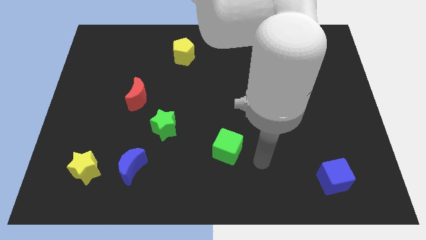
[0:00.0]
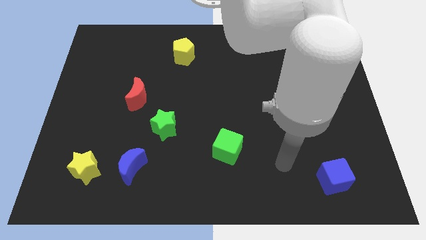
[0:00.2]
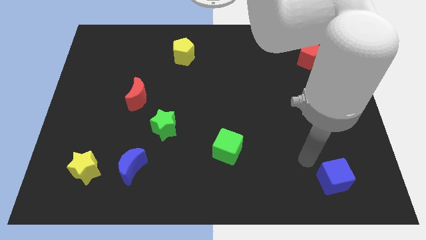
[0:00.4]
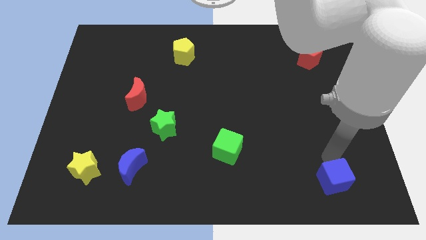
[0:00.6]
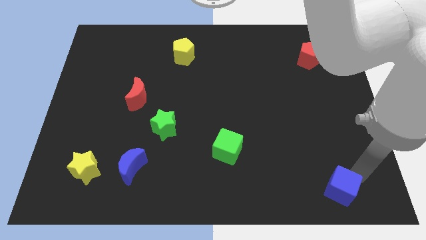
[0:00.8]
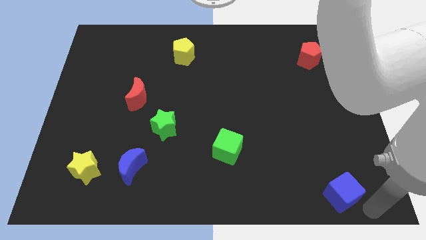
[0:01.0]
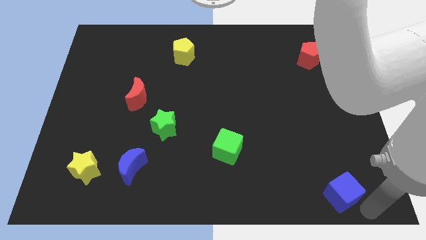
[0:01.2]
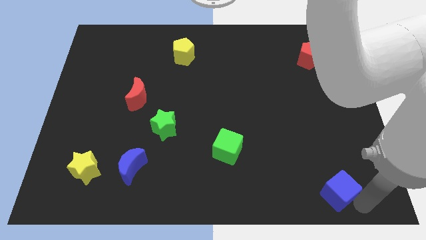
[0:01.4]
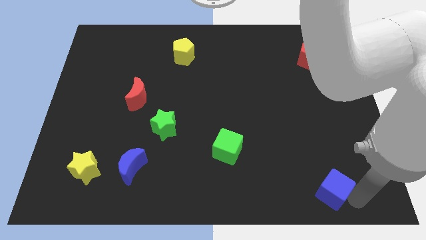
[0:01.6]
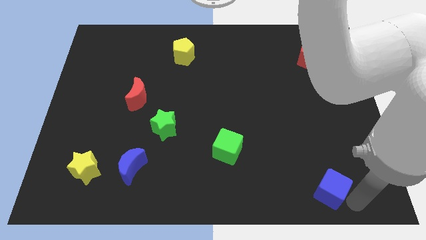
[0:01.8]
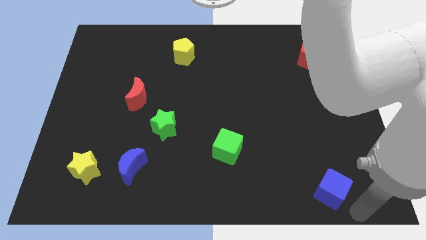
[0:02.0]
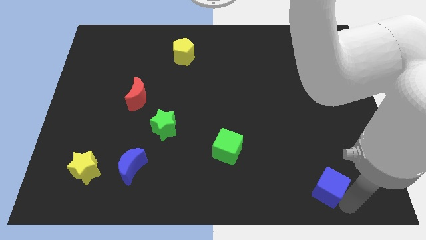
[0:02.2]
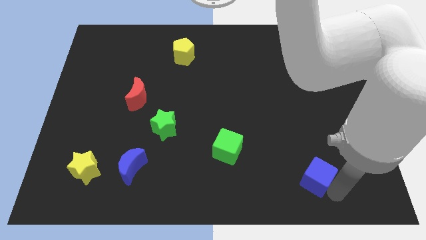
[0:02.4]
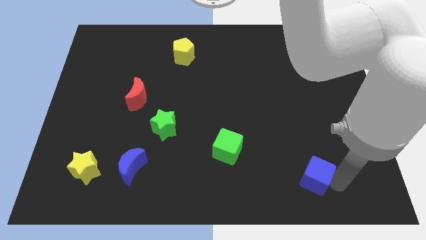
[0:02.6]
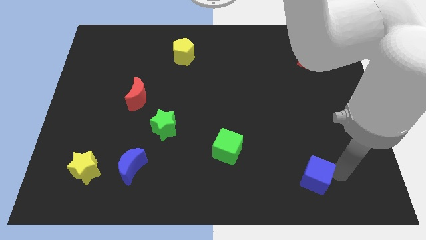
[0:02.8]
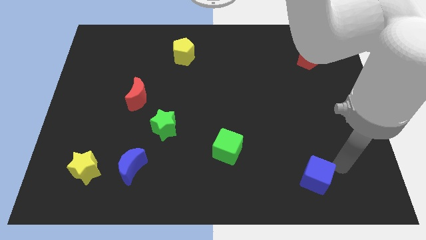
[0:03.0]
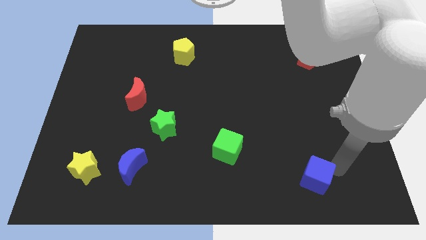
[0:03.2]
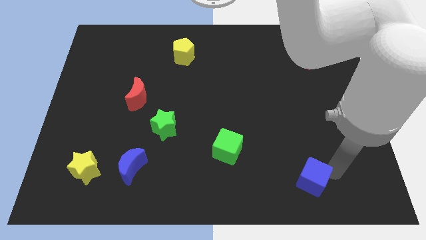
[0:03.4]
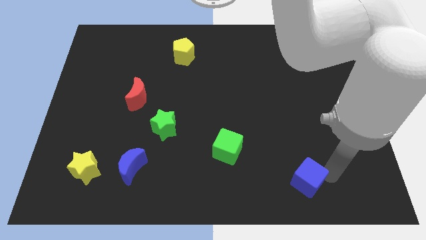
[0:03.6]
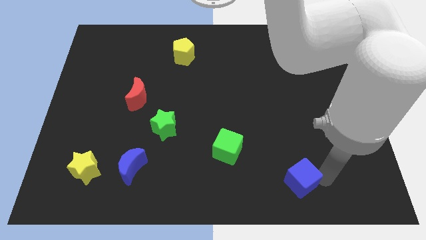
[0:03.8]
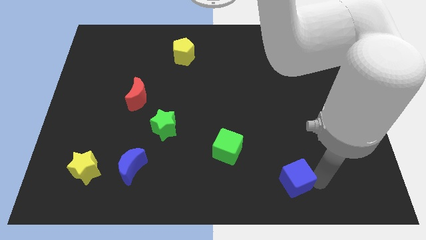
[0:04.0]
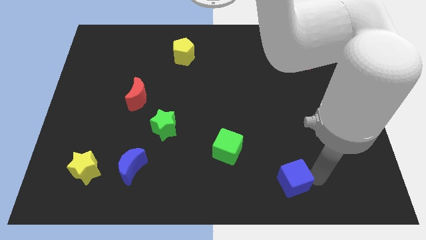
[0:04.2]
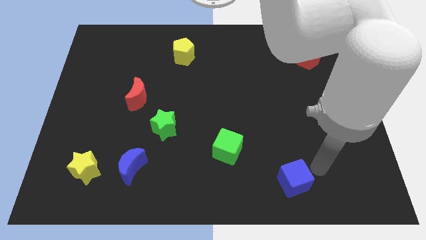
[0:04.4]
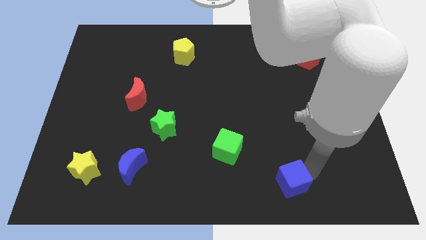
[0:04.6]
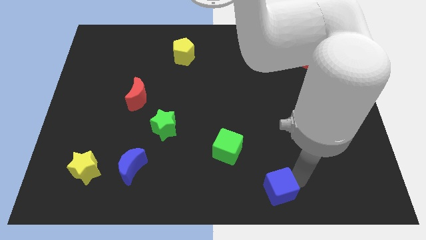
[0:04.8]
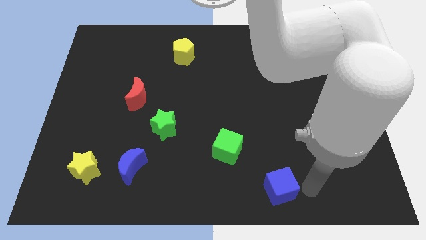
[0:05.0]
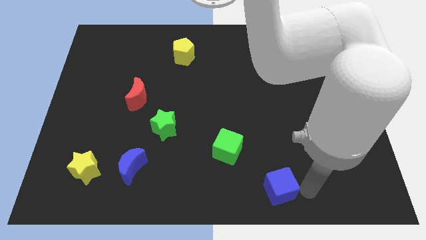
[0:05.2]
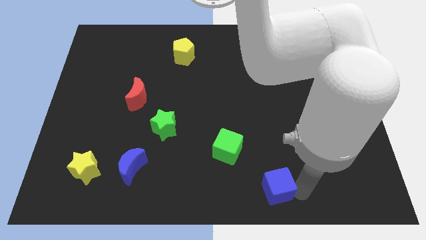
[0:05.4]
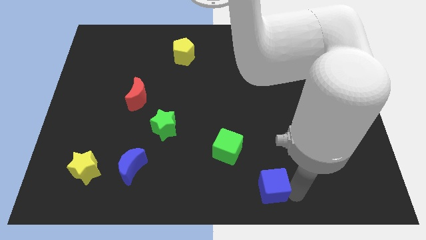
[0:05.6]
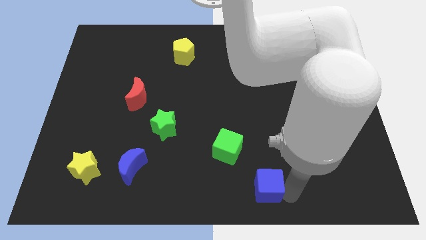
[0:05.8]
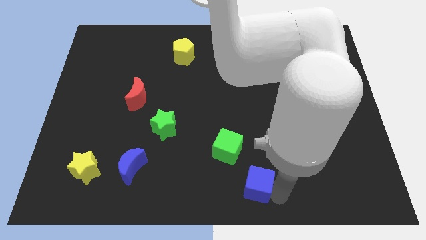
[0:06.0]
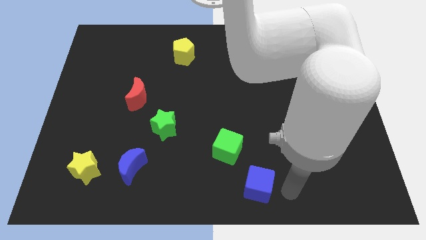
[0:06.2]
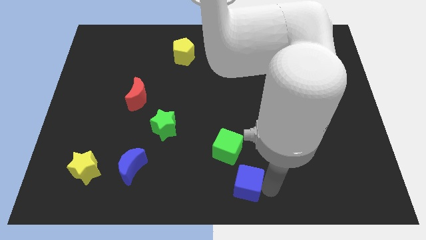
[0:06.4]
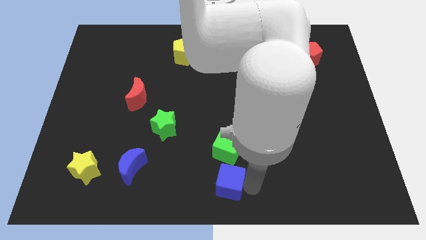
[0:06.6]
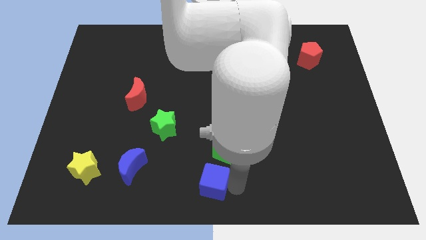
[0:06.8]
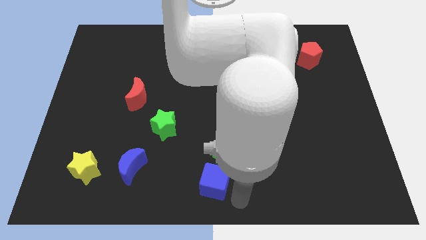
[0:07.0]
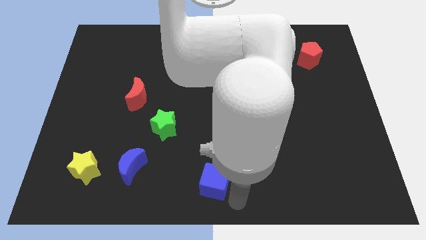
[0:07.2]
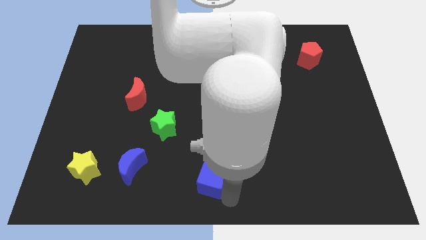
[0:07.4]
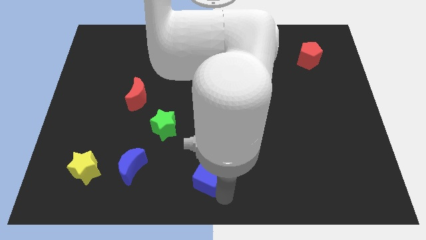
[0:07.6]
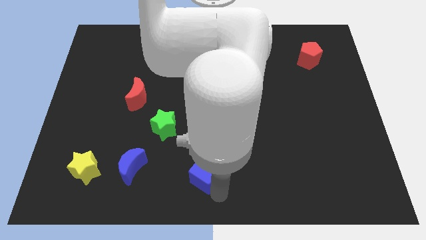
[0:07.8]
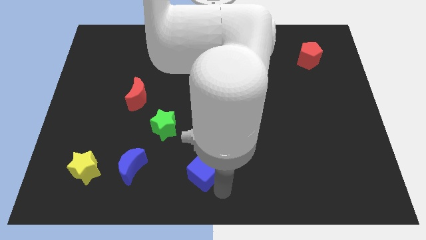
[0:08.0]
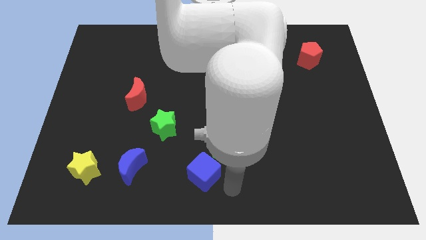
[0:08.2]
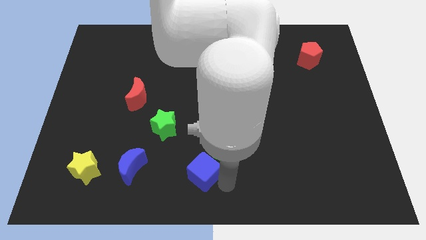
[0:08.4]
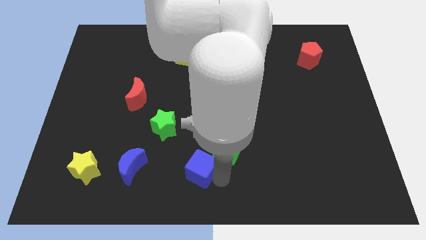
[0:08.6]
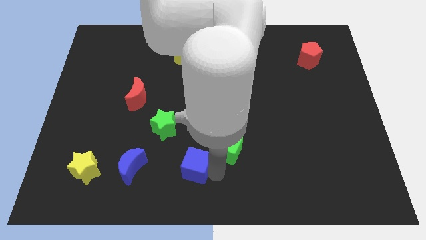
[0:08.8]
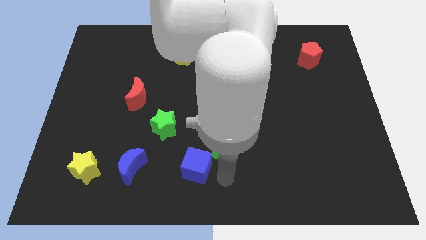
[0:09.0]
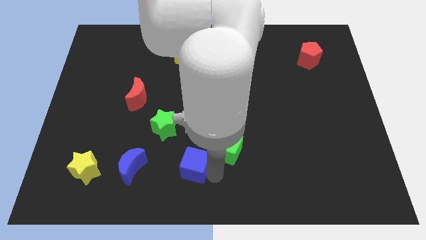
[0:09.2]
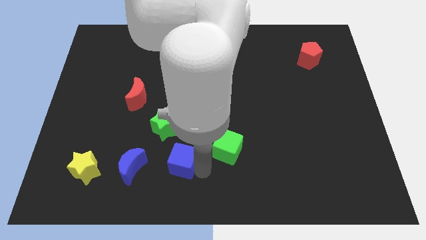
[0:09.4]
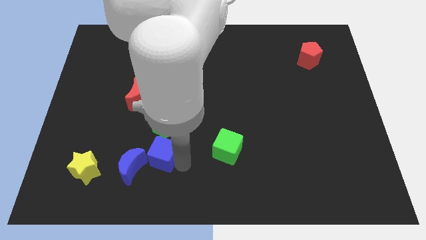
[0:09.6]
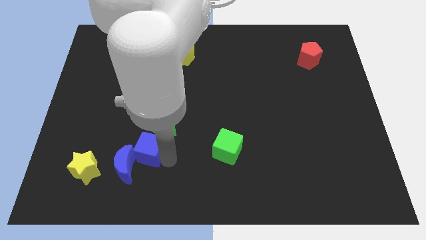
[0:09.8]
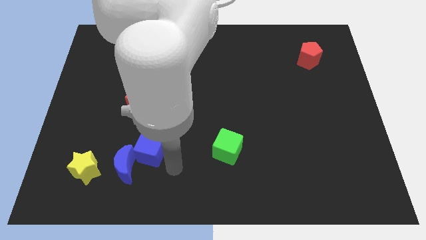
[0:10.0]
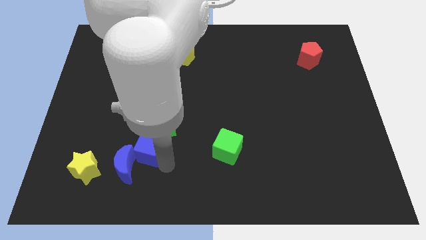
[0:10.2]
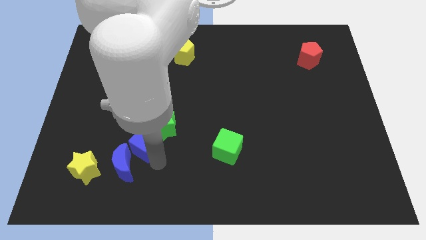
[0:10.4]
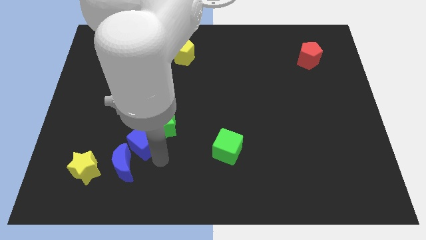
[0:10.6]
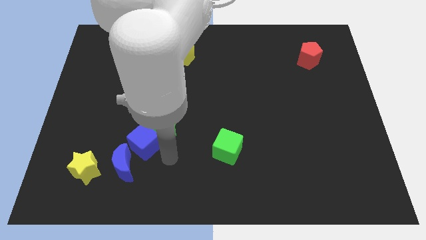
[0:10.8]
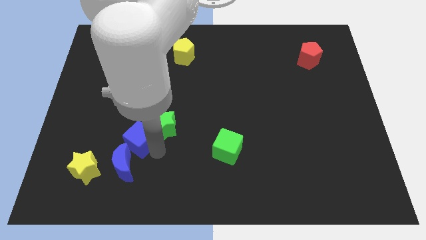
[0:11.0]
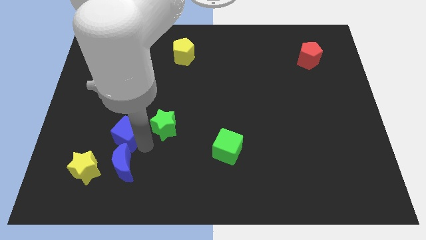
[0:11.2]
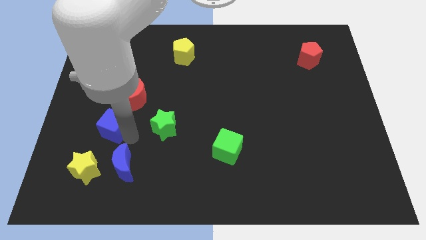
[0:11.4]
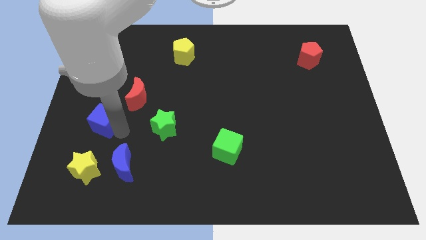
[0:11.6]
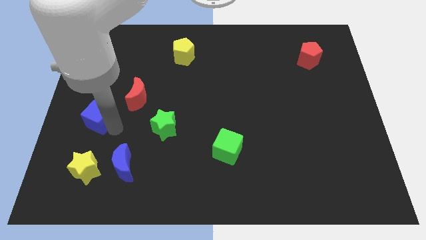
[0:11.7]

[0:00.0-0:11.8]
push the blue cube to the center left

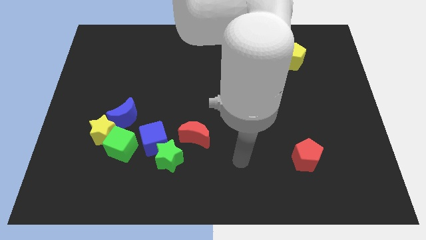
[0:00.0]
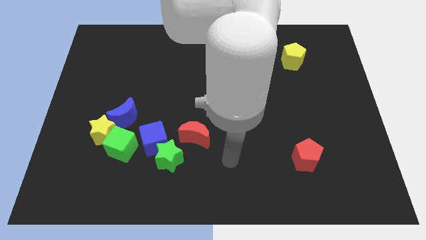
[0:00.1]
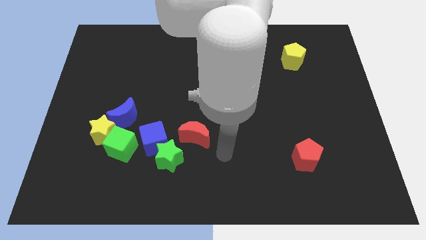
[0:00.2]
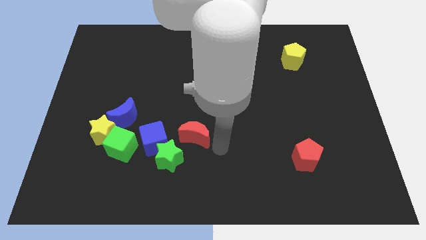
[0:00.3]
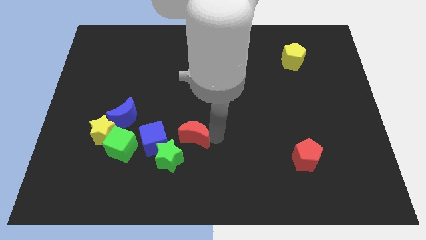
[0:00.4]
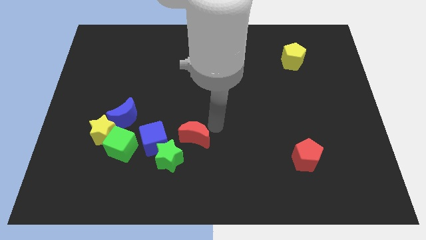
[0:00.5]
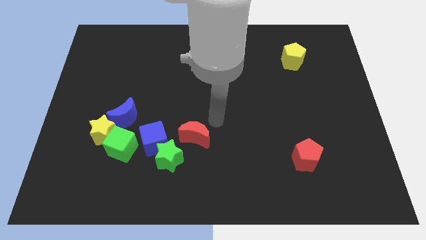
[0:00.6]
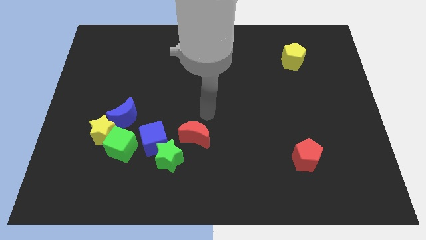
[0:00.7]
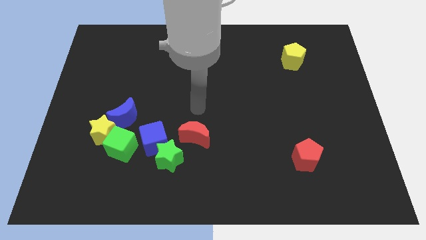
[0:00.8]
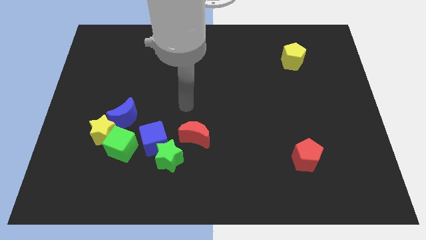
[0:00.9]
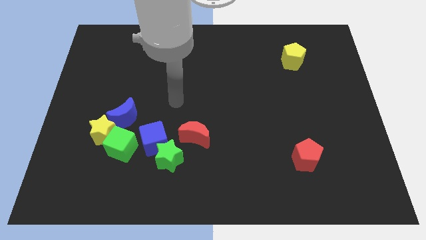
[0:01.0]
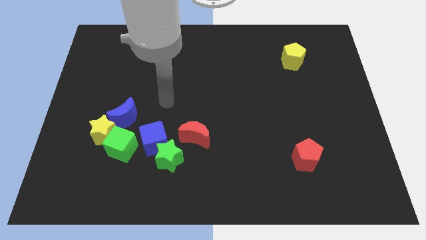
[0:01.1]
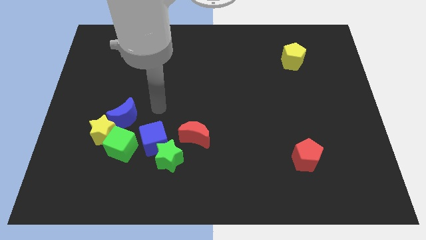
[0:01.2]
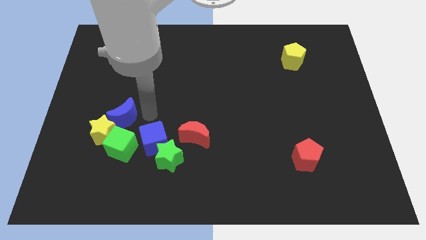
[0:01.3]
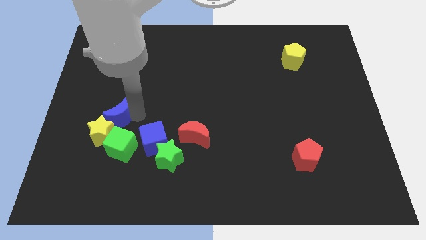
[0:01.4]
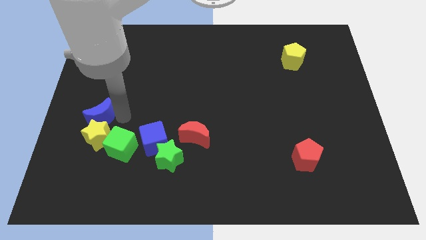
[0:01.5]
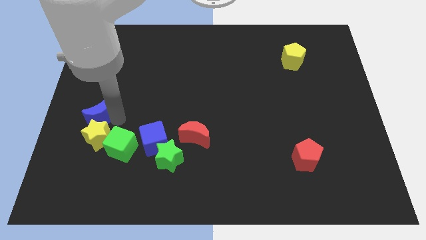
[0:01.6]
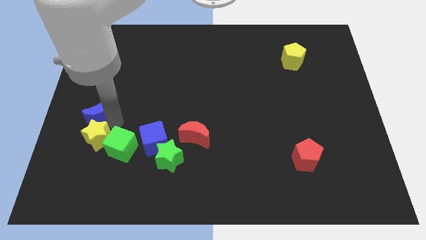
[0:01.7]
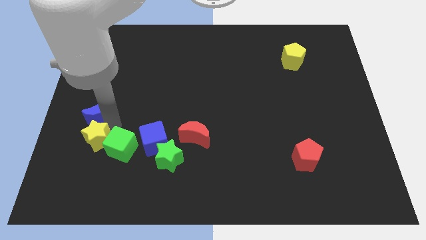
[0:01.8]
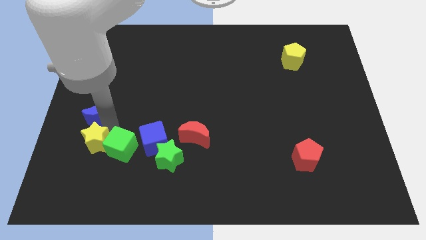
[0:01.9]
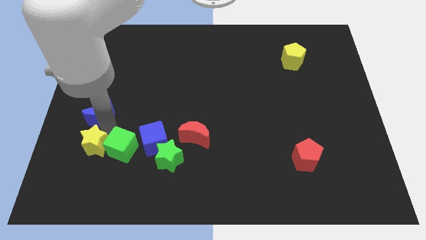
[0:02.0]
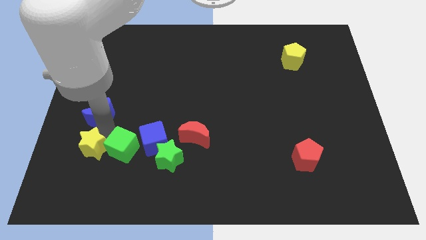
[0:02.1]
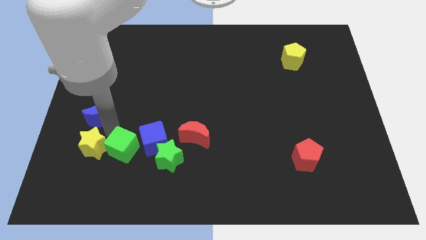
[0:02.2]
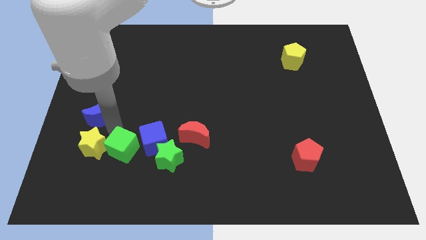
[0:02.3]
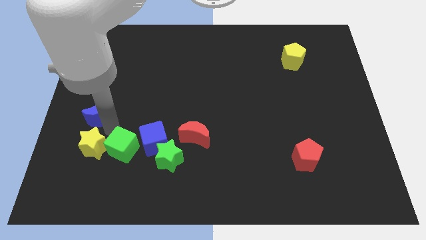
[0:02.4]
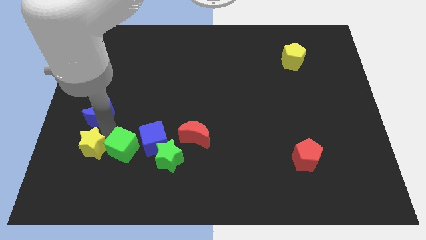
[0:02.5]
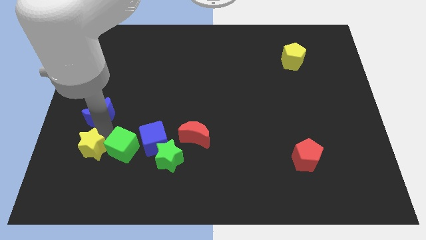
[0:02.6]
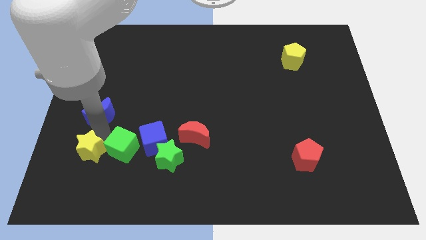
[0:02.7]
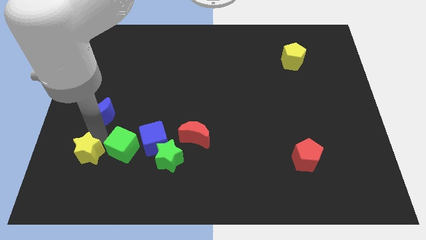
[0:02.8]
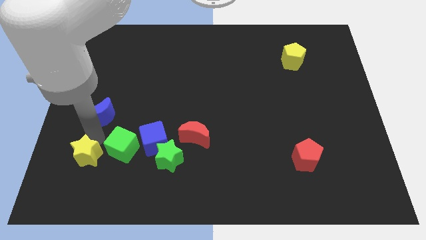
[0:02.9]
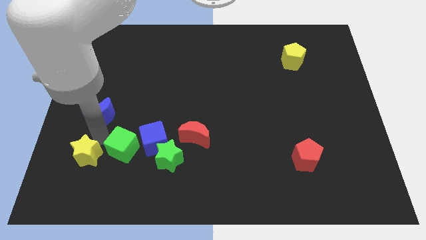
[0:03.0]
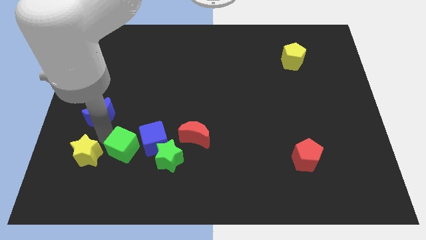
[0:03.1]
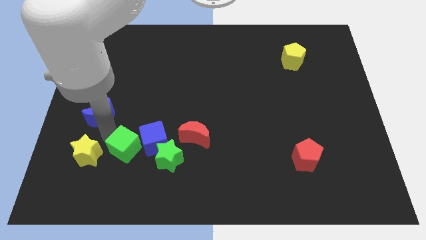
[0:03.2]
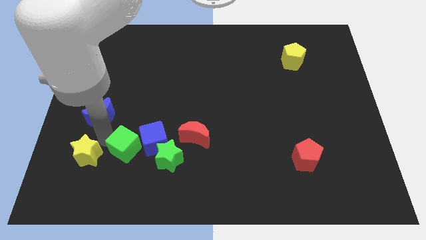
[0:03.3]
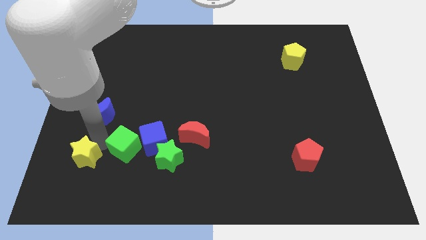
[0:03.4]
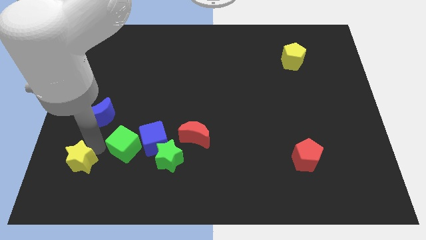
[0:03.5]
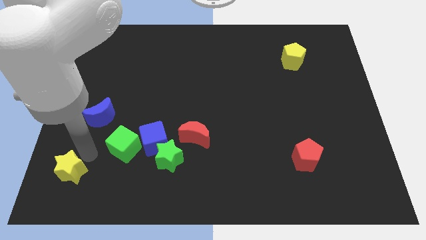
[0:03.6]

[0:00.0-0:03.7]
put the yellow star to the bottom left corner
